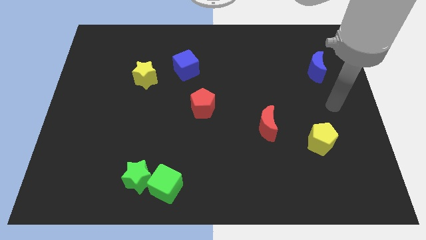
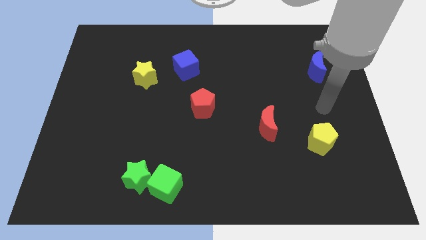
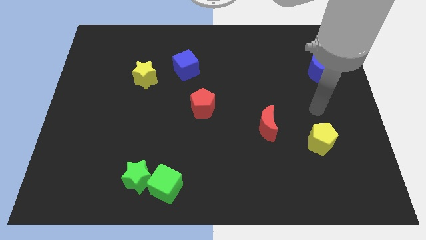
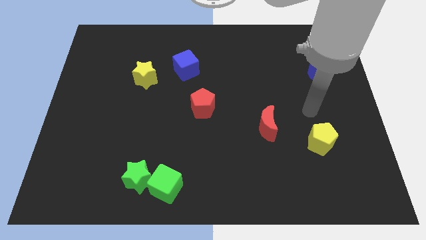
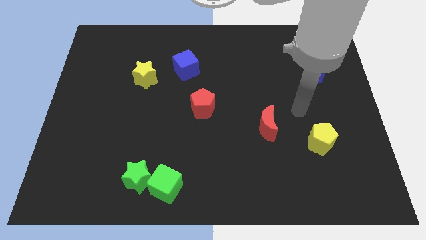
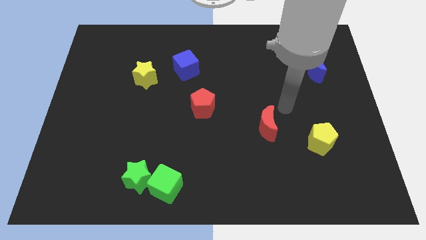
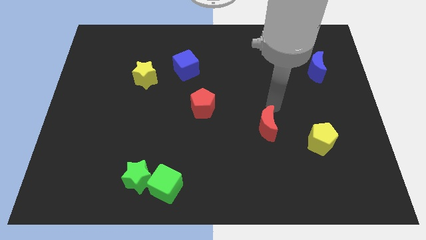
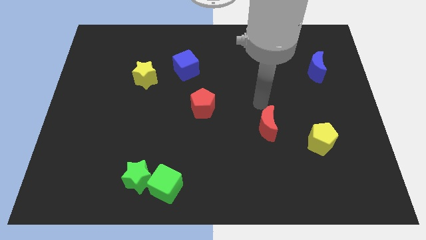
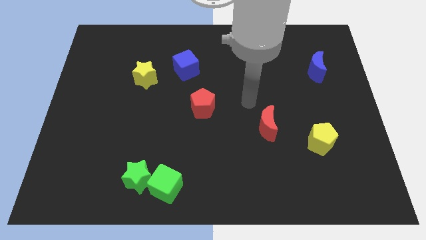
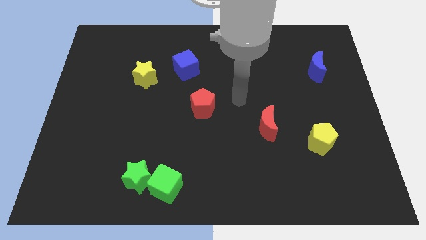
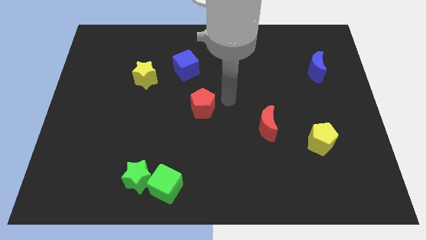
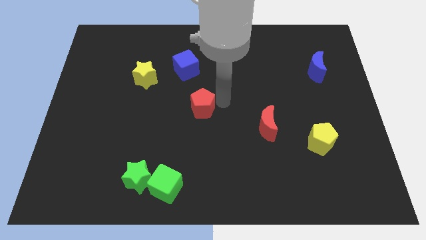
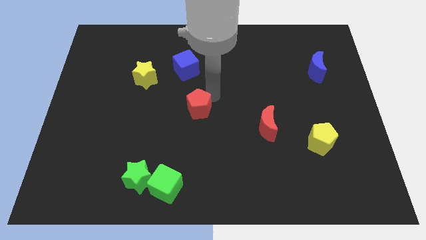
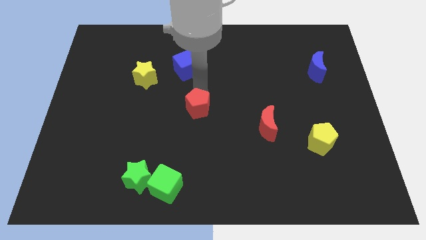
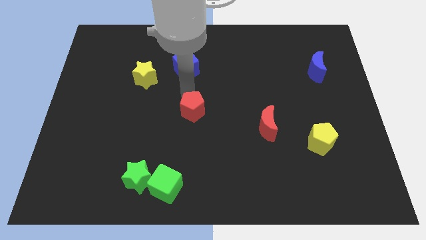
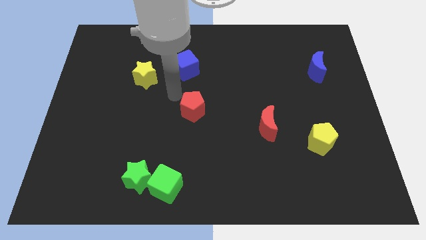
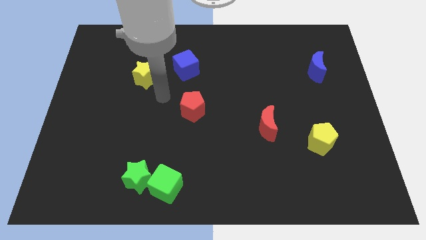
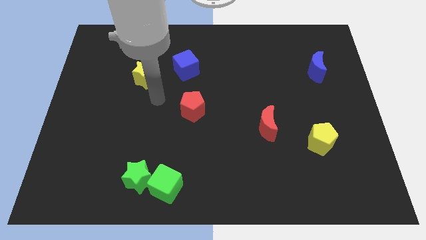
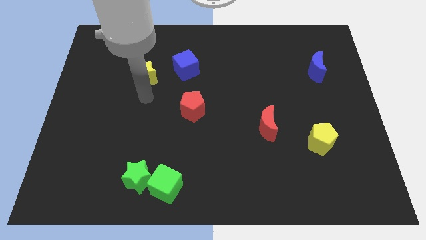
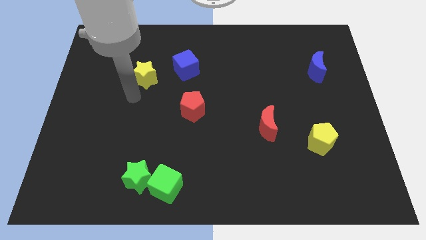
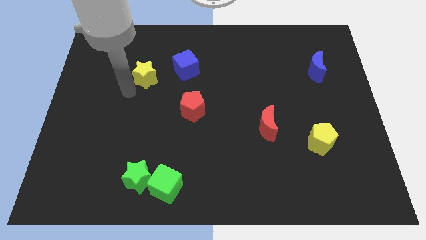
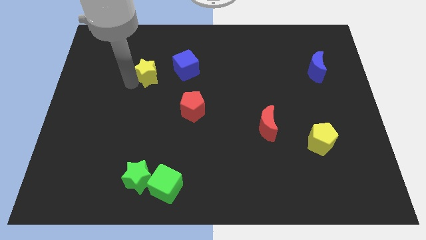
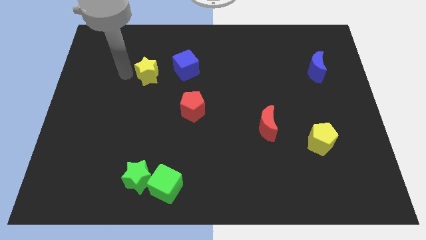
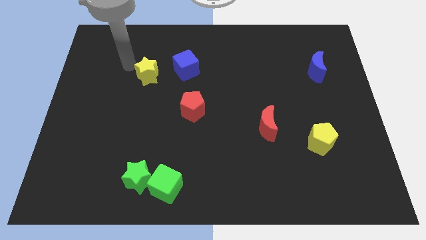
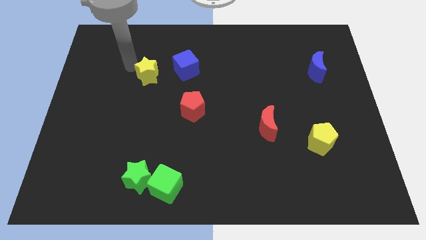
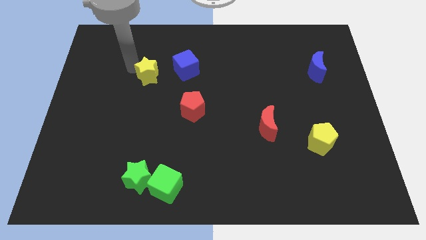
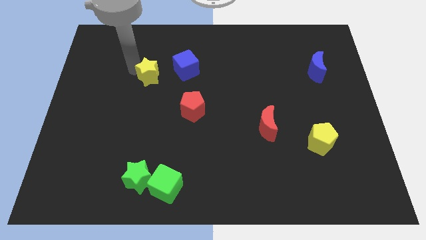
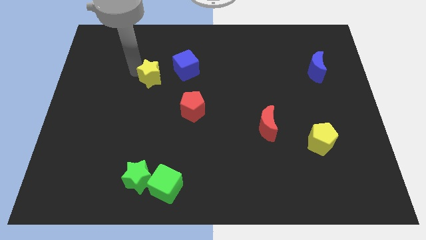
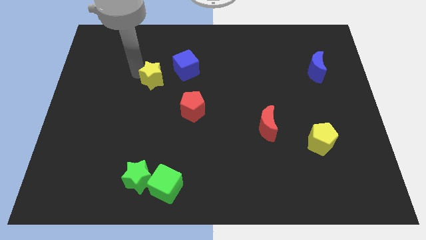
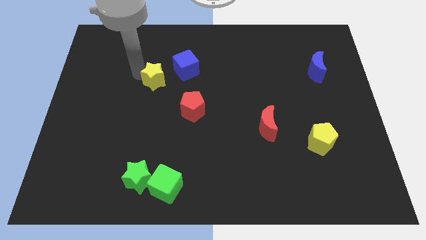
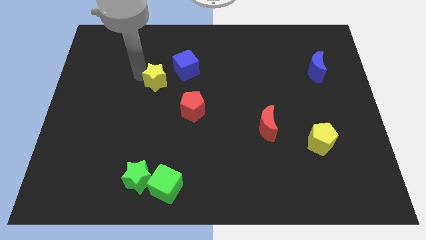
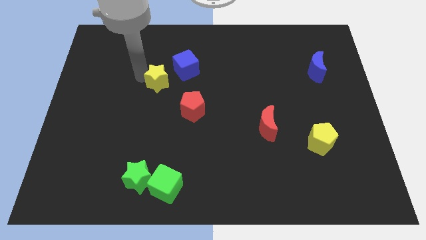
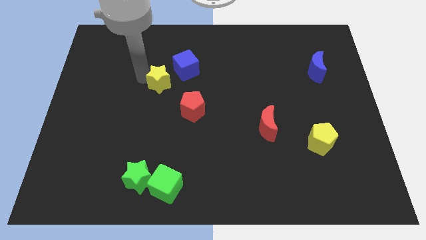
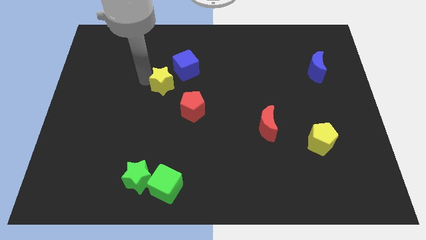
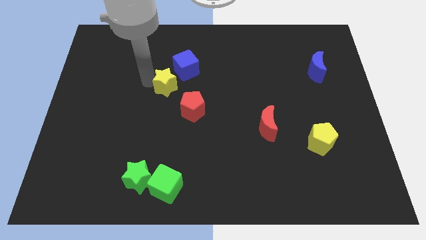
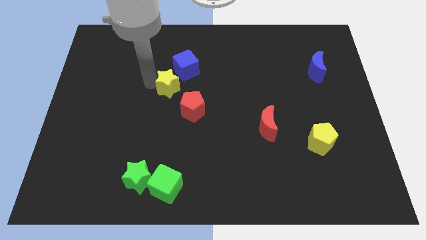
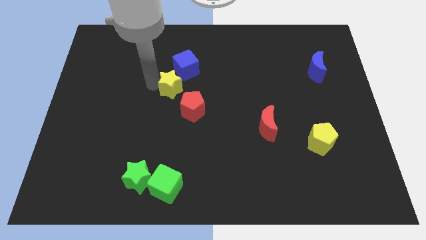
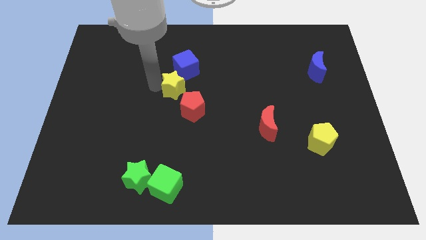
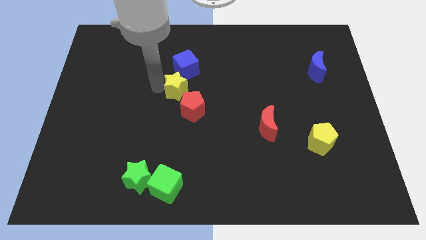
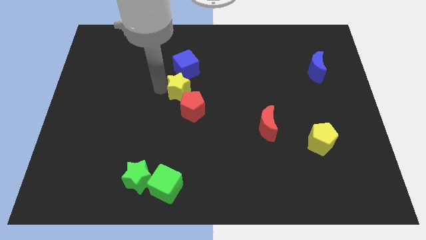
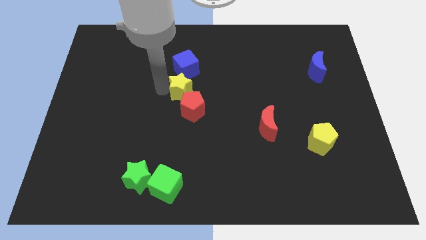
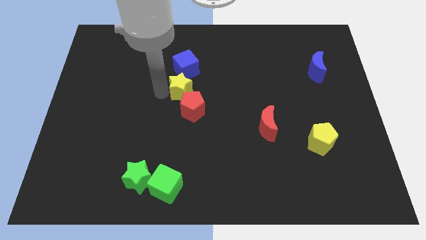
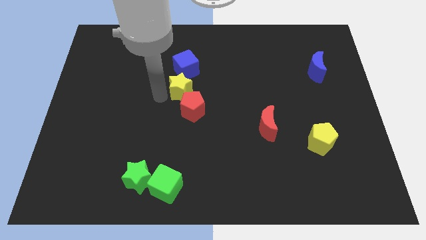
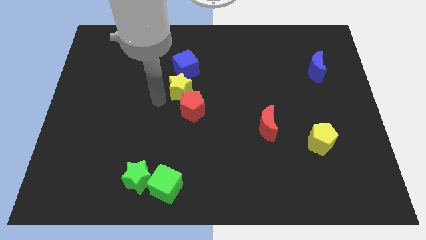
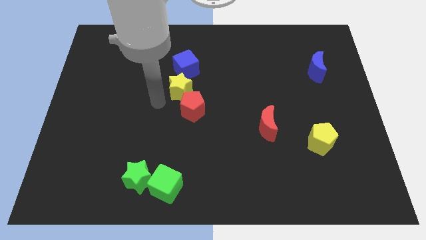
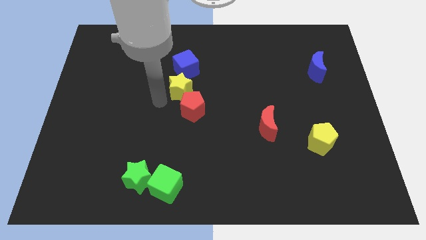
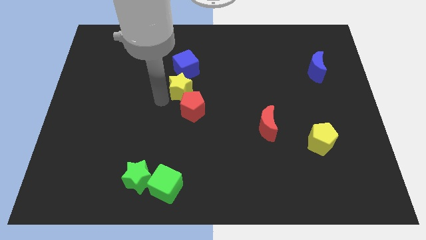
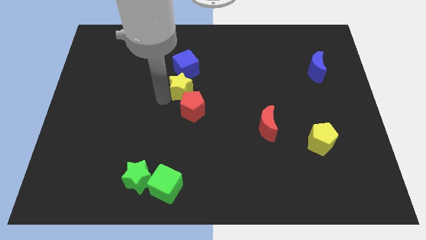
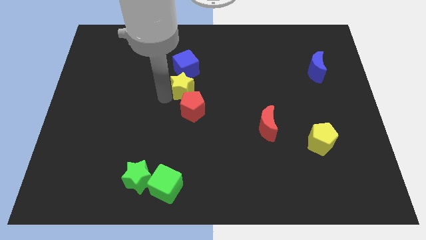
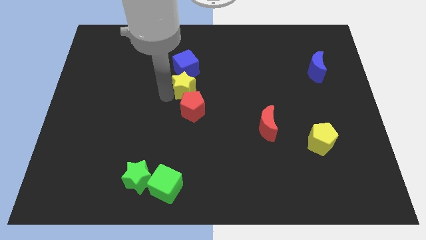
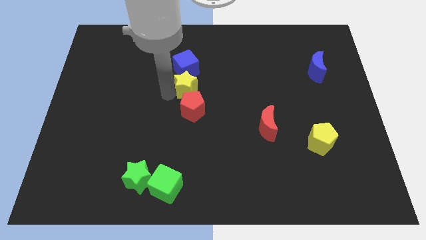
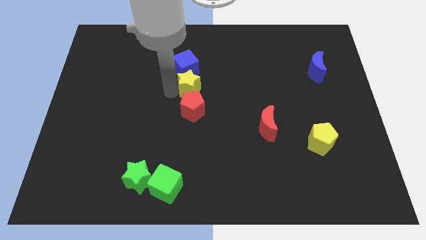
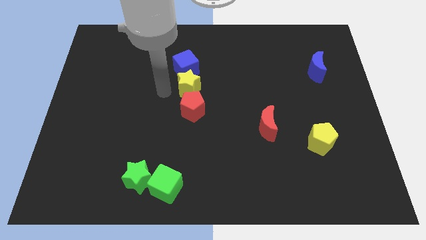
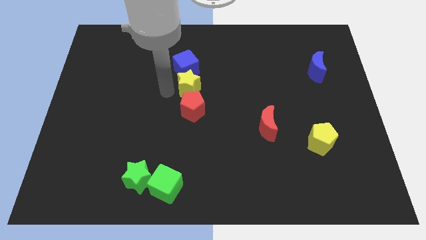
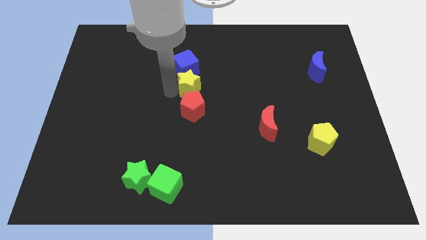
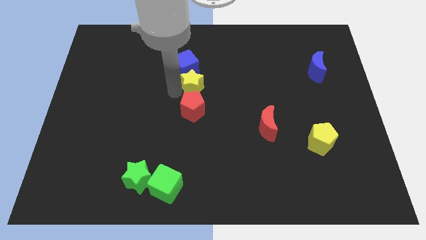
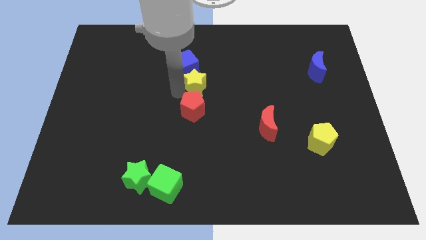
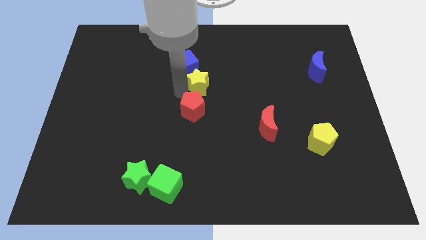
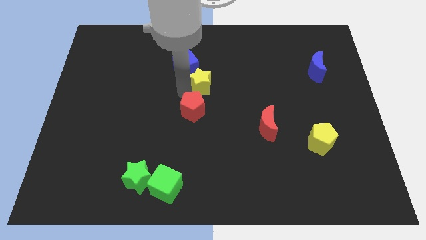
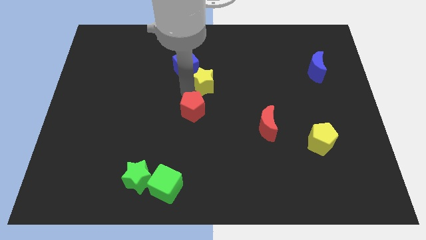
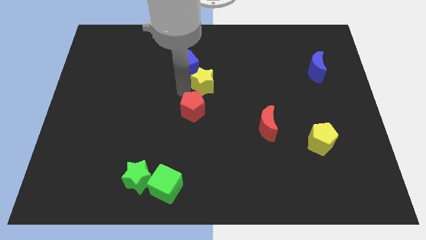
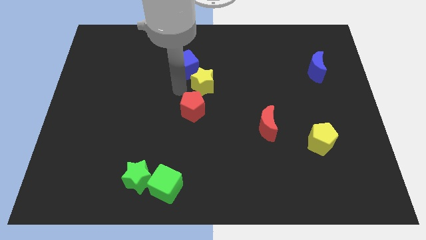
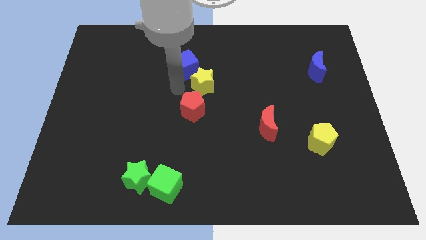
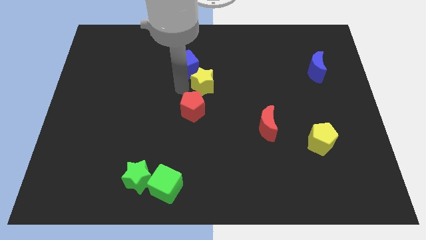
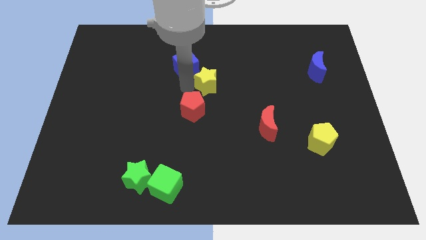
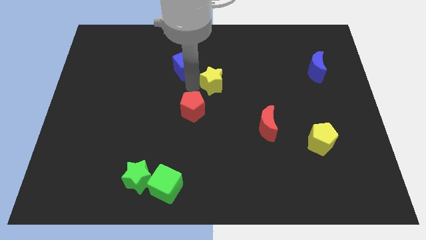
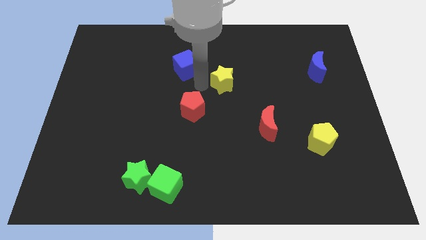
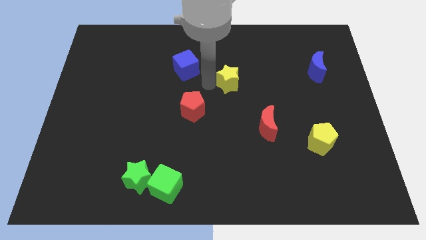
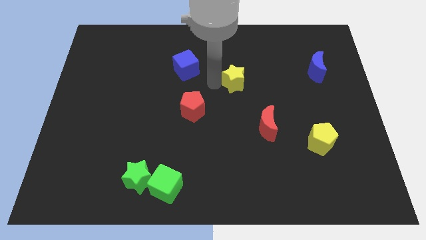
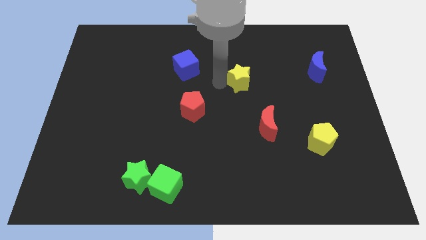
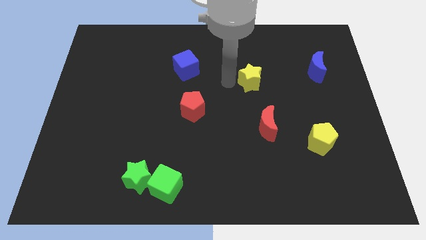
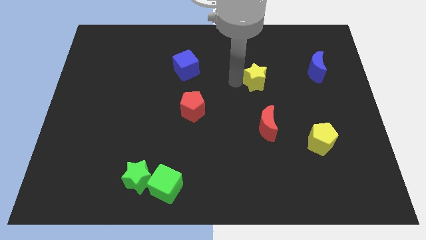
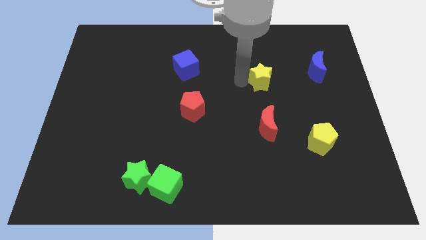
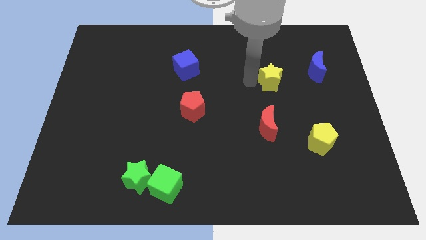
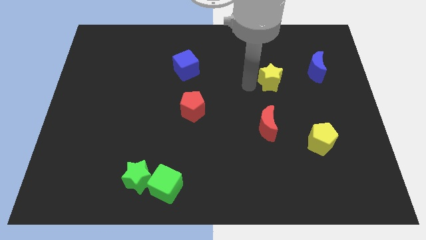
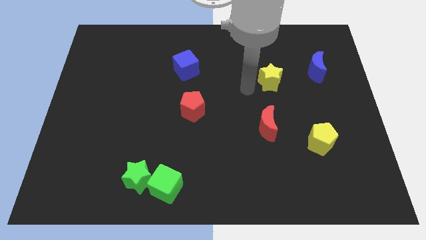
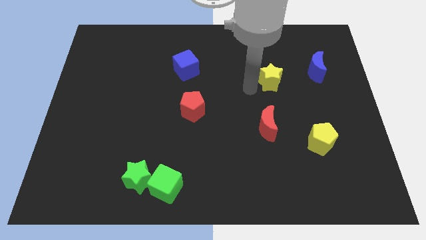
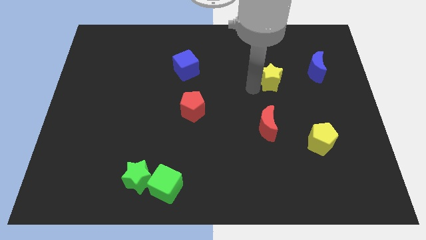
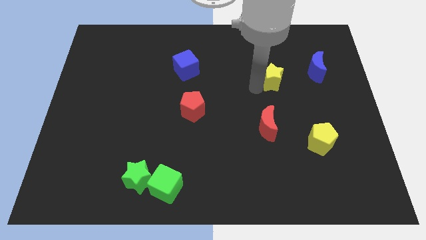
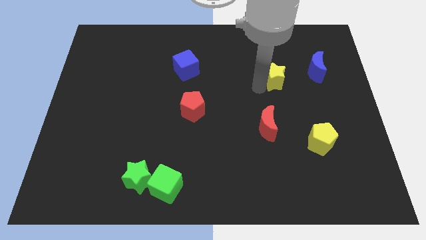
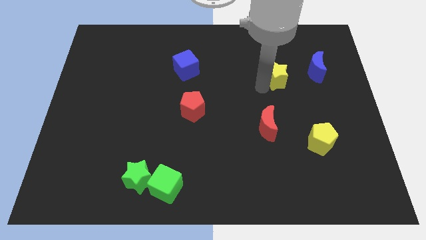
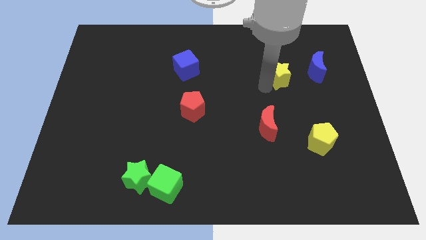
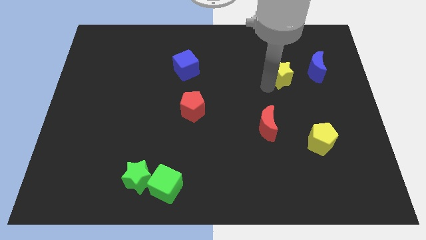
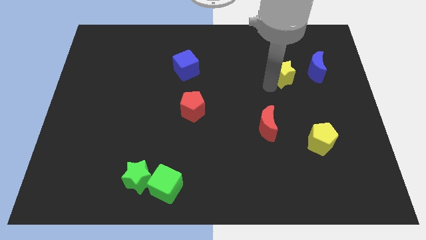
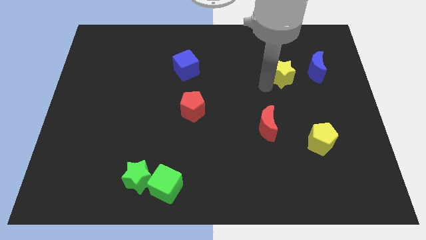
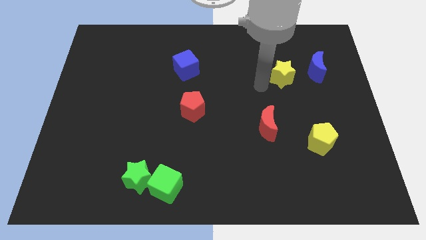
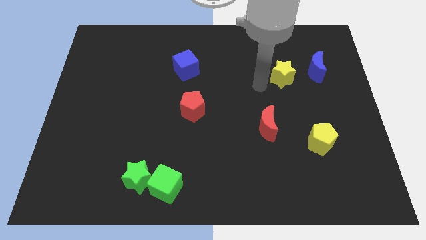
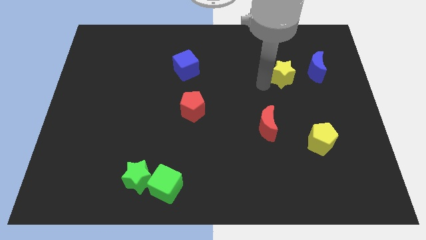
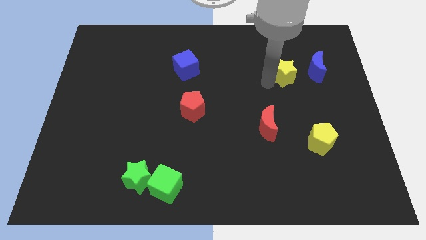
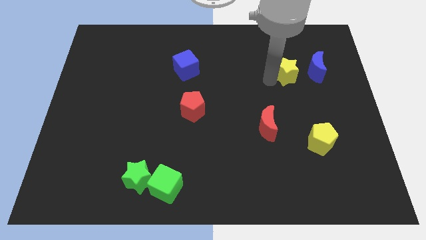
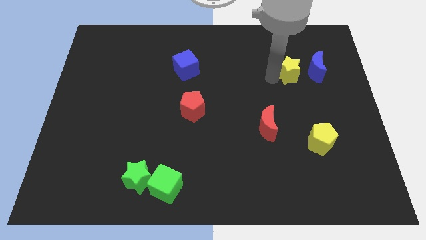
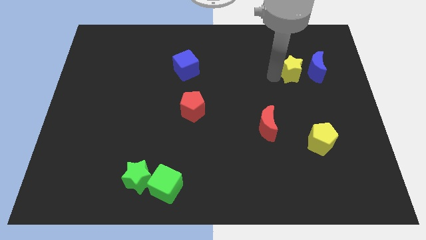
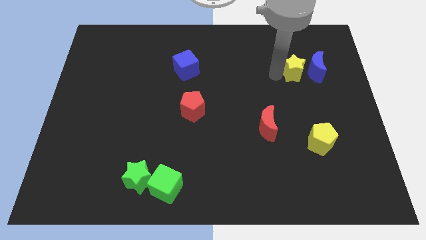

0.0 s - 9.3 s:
slide the yellow star next to the blue moon
